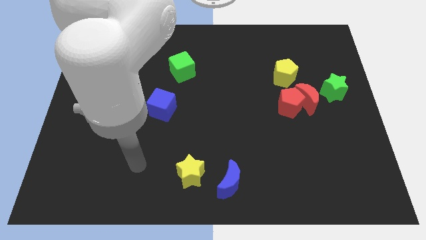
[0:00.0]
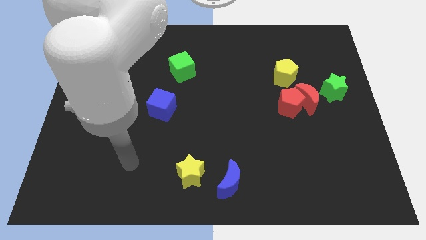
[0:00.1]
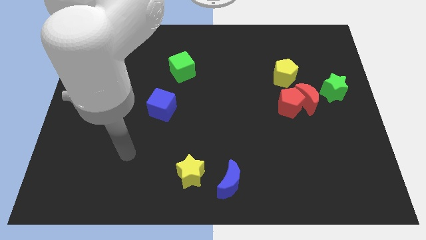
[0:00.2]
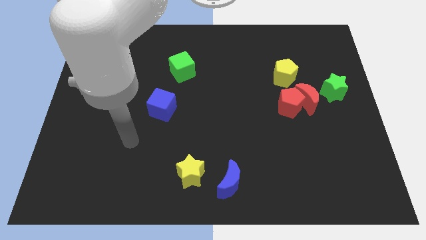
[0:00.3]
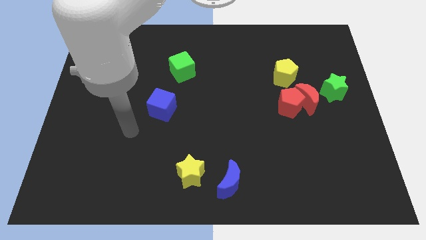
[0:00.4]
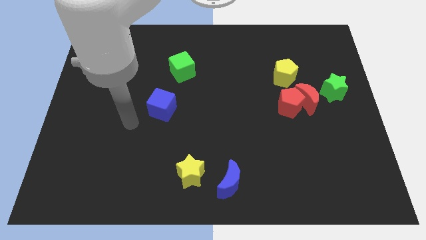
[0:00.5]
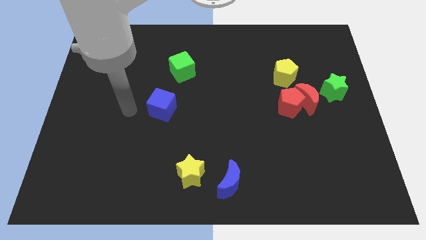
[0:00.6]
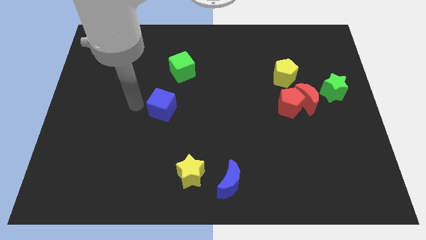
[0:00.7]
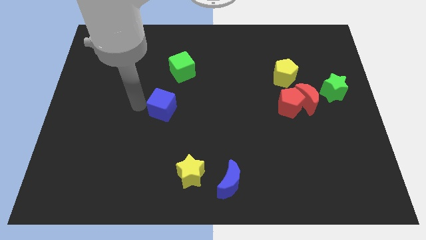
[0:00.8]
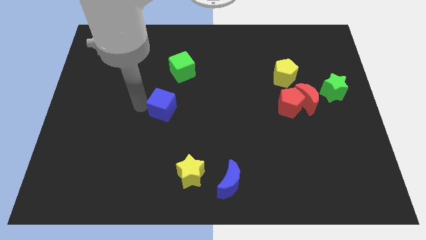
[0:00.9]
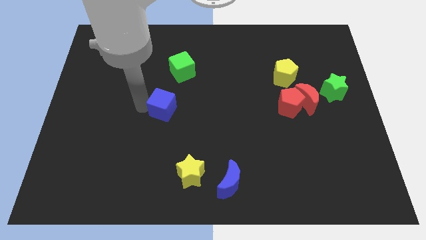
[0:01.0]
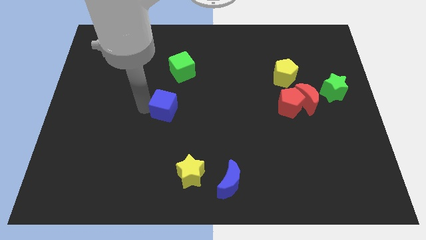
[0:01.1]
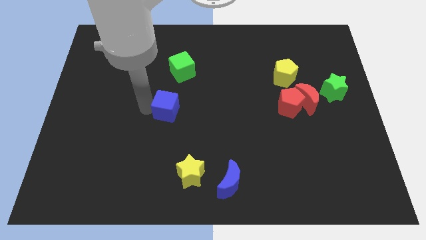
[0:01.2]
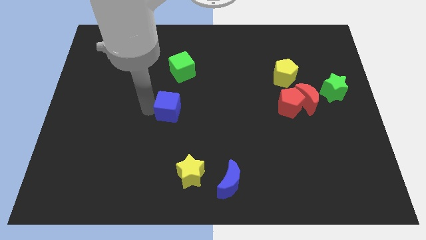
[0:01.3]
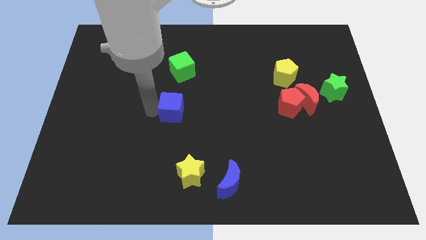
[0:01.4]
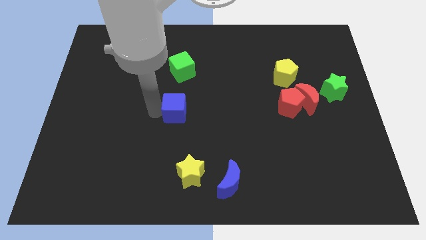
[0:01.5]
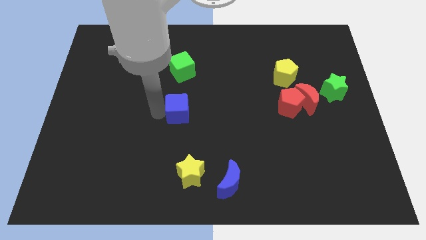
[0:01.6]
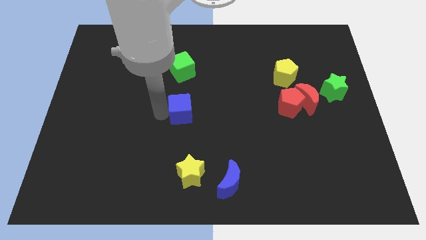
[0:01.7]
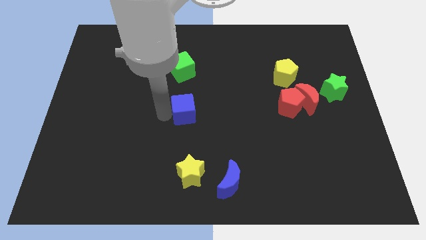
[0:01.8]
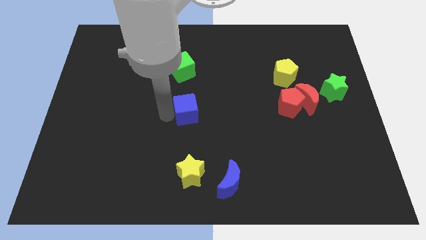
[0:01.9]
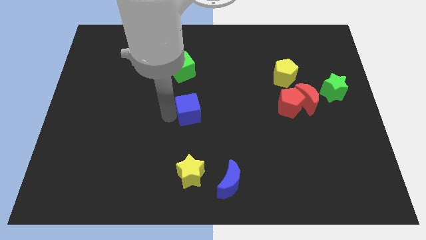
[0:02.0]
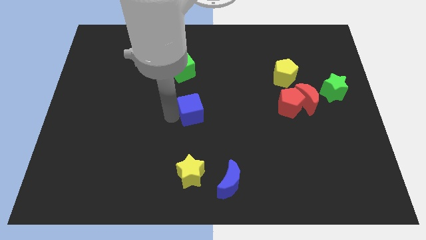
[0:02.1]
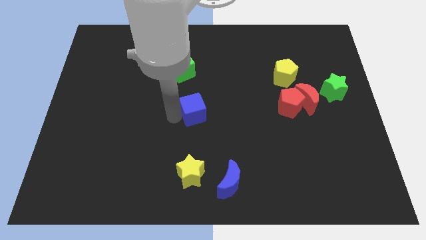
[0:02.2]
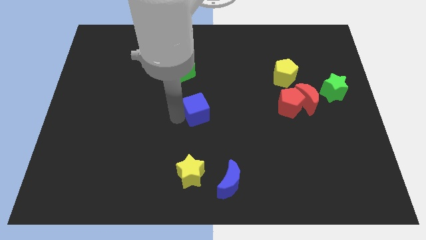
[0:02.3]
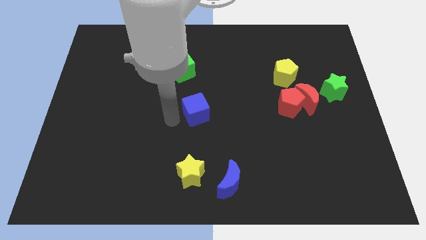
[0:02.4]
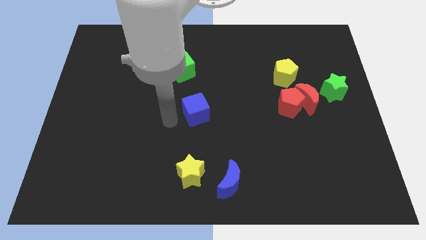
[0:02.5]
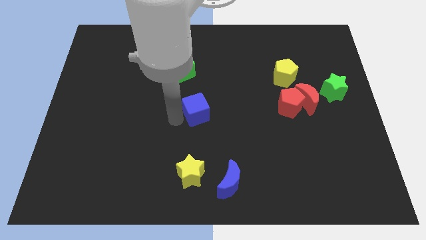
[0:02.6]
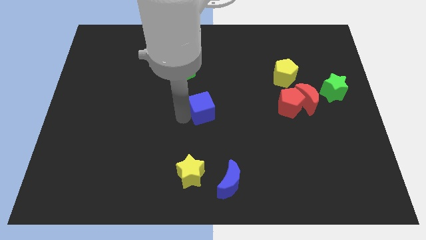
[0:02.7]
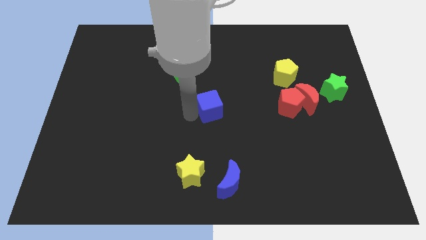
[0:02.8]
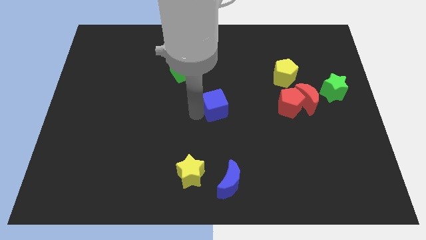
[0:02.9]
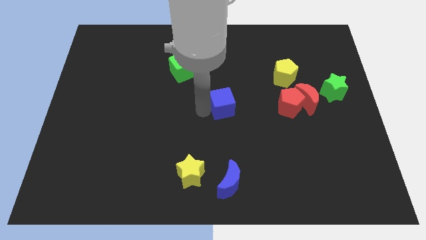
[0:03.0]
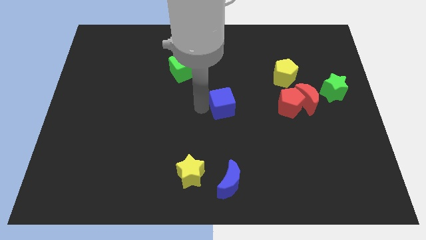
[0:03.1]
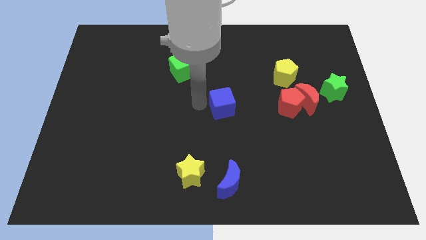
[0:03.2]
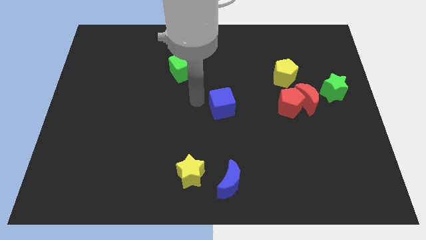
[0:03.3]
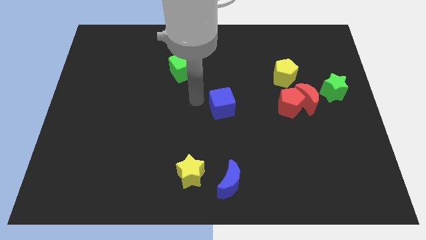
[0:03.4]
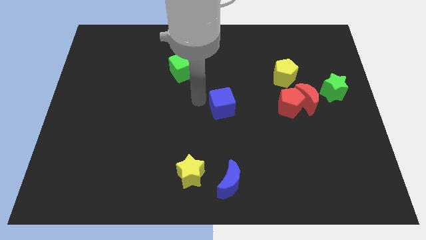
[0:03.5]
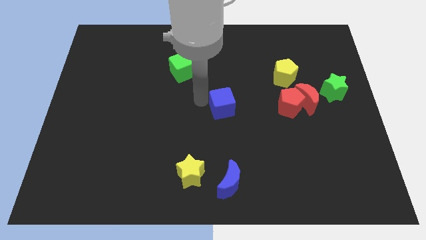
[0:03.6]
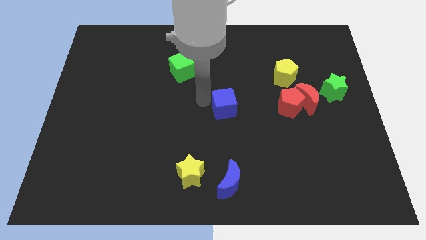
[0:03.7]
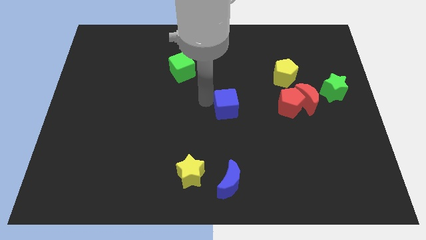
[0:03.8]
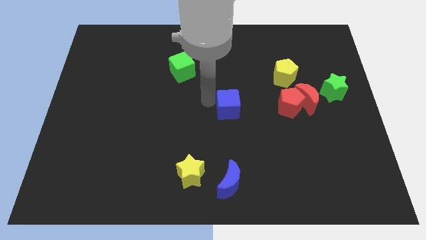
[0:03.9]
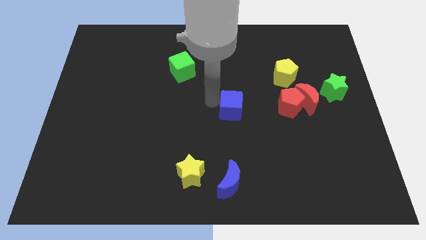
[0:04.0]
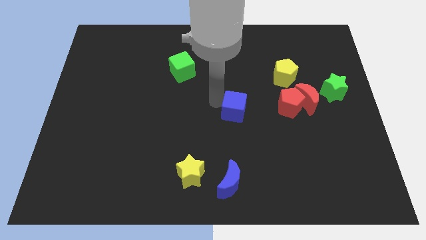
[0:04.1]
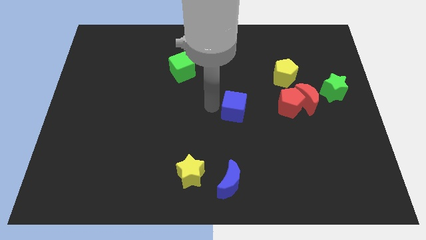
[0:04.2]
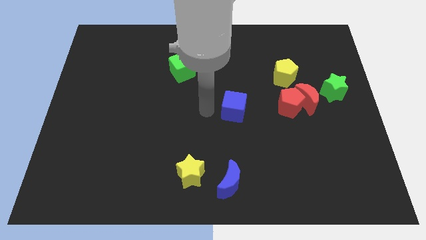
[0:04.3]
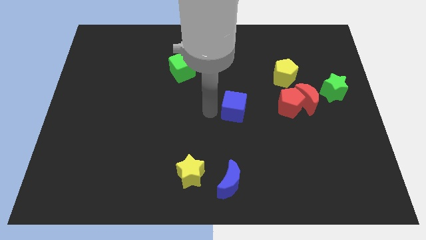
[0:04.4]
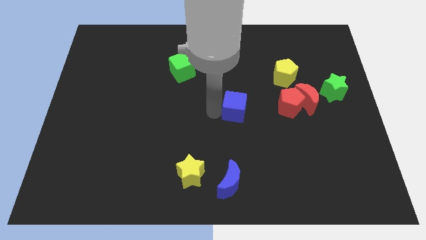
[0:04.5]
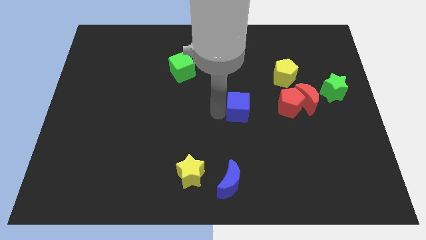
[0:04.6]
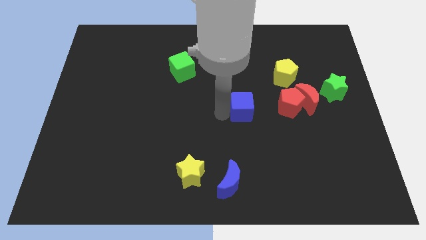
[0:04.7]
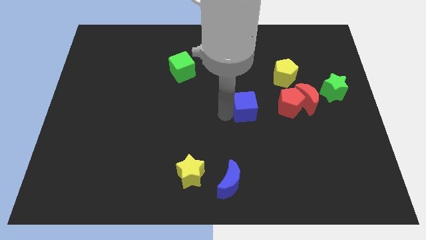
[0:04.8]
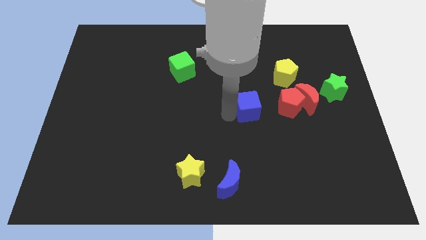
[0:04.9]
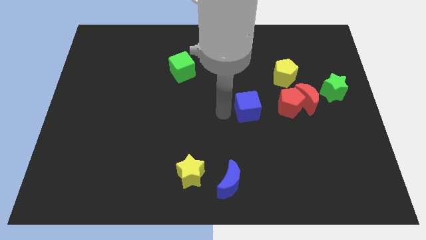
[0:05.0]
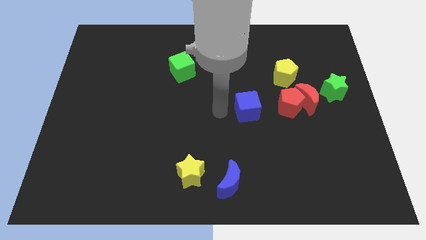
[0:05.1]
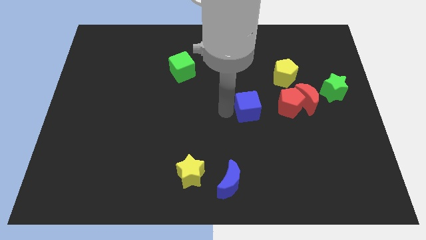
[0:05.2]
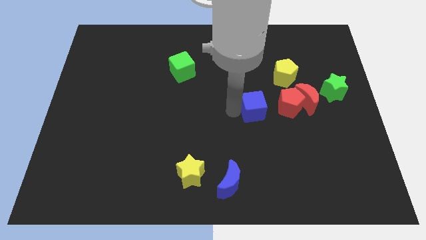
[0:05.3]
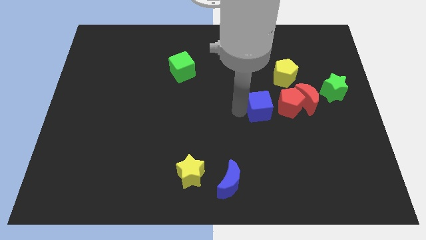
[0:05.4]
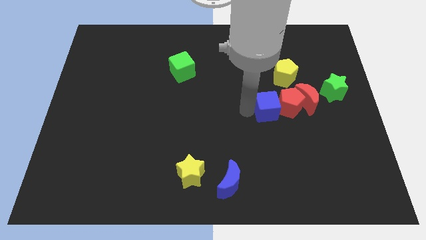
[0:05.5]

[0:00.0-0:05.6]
put the blue cube next to the red pentagon
